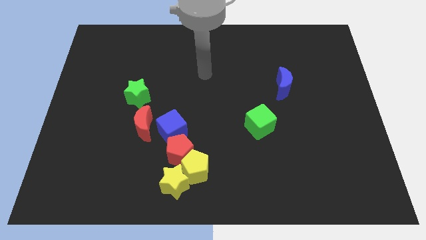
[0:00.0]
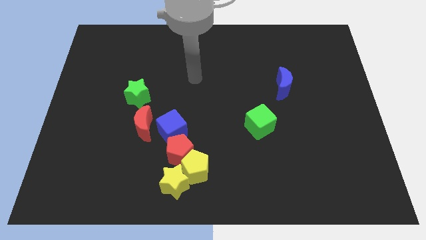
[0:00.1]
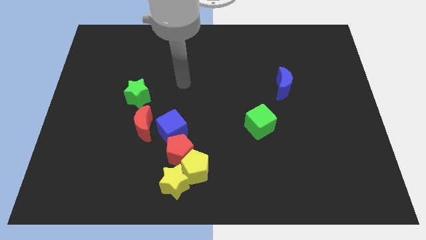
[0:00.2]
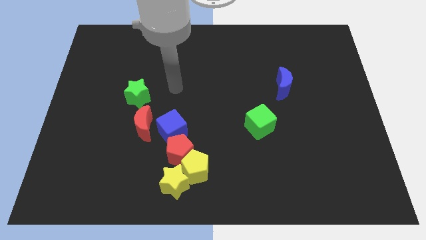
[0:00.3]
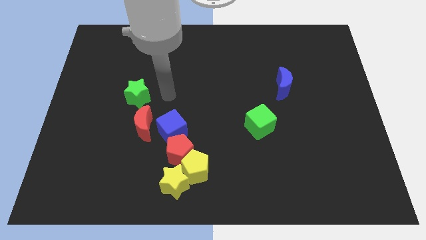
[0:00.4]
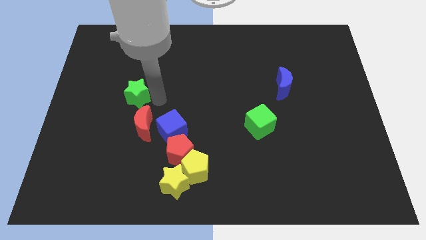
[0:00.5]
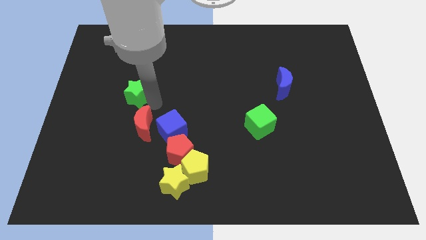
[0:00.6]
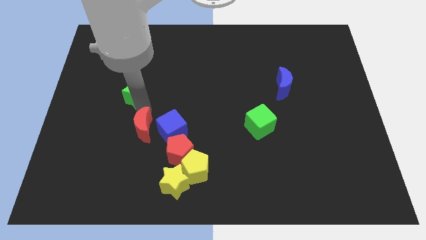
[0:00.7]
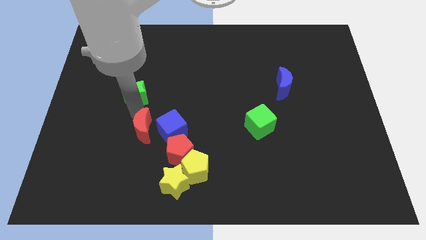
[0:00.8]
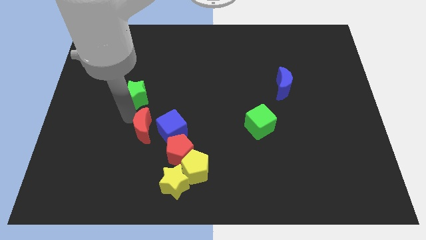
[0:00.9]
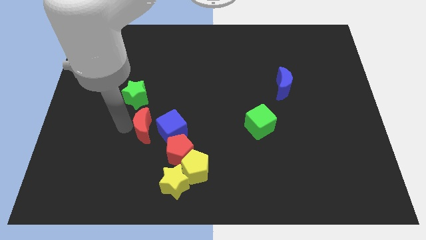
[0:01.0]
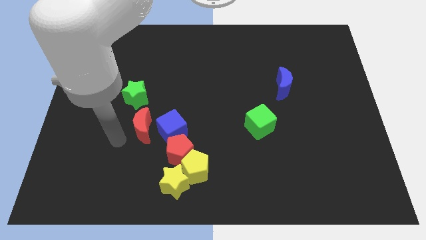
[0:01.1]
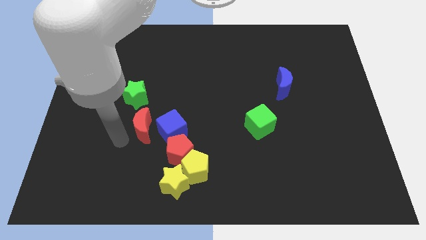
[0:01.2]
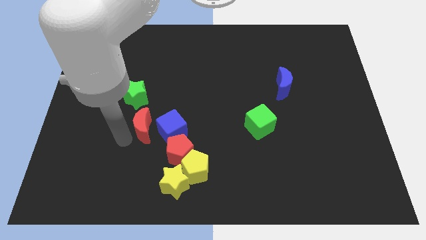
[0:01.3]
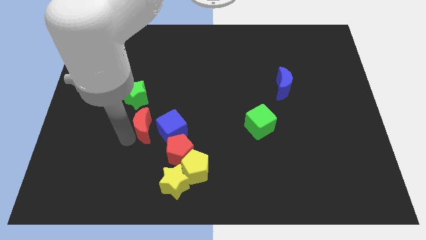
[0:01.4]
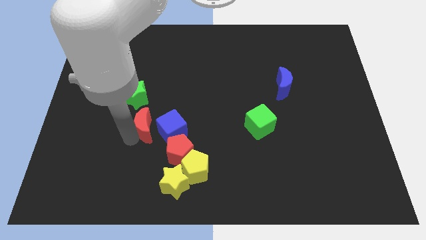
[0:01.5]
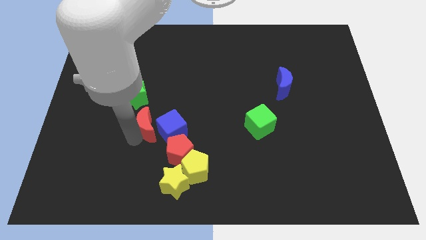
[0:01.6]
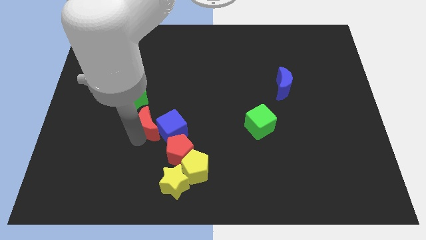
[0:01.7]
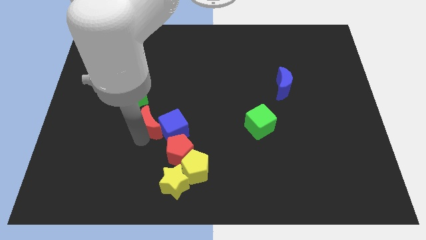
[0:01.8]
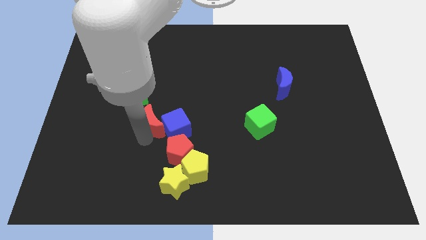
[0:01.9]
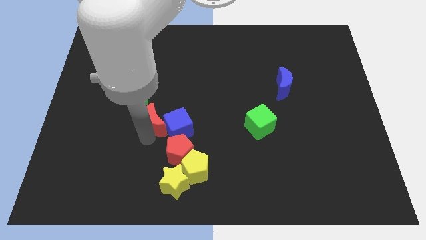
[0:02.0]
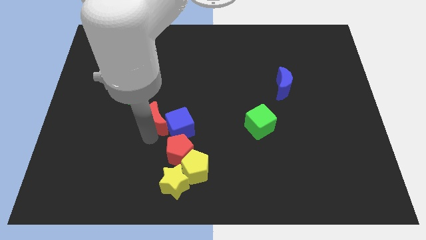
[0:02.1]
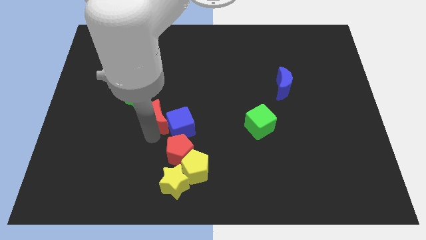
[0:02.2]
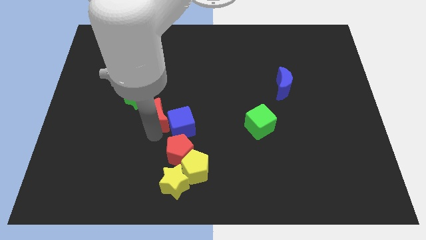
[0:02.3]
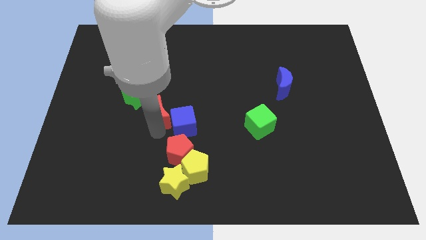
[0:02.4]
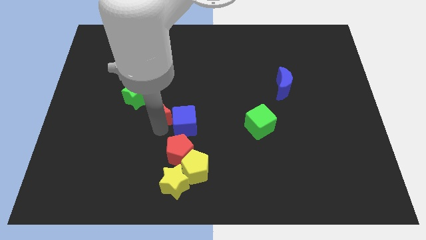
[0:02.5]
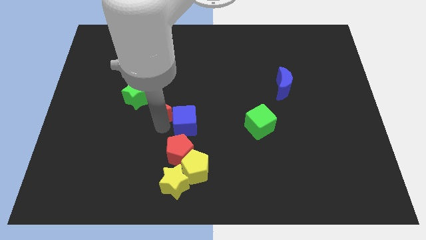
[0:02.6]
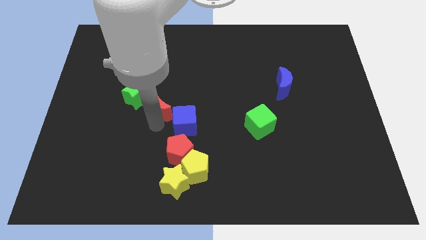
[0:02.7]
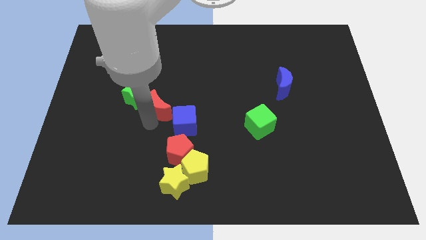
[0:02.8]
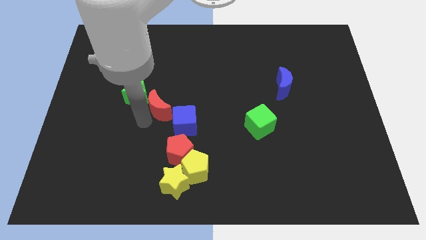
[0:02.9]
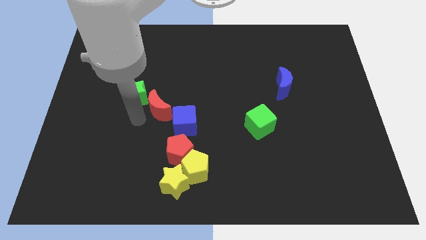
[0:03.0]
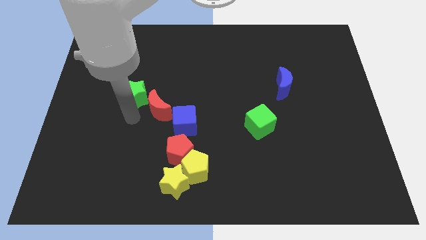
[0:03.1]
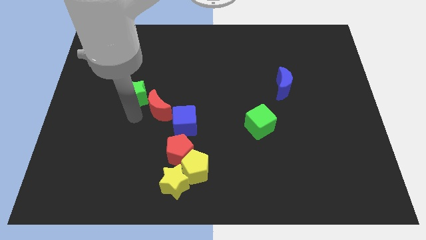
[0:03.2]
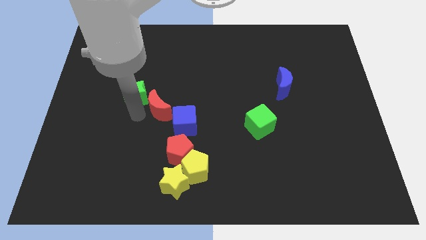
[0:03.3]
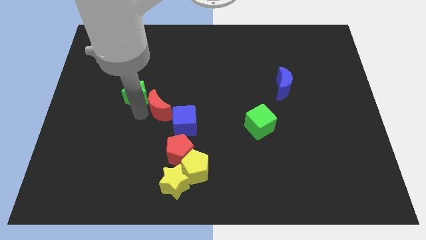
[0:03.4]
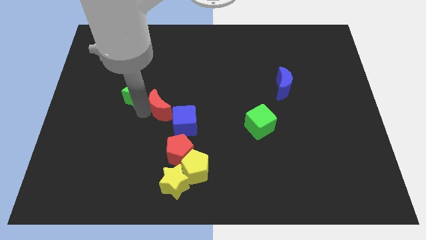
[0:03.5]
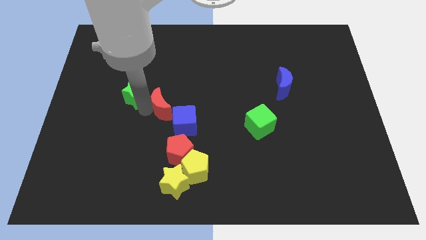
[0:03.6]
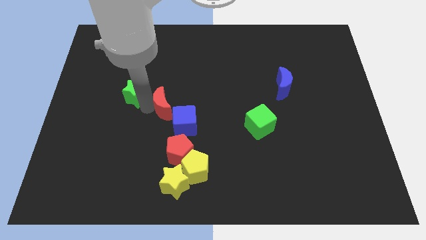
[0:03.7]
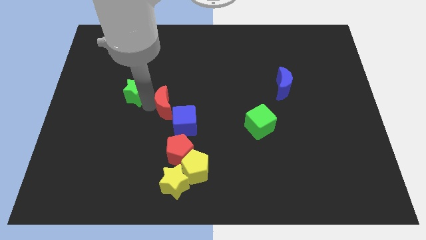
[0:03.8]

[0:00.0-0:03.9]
move the red moon a little upwards and right

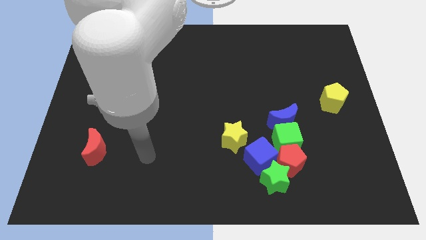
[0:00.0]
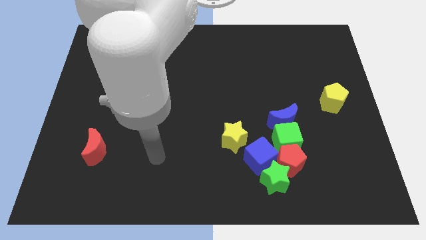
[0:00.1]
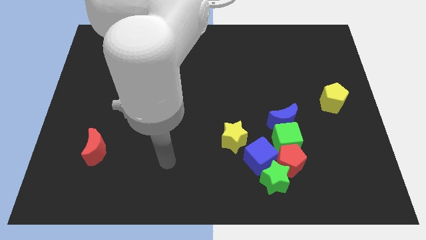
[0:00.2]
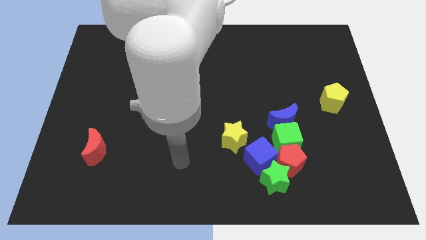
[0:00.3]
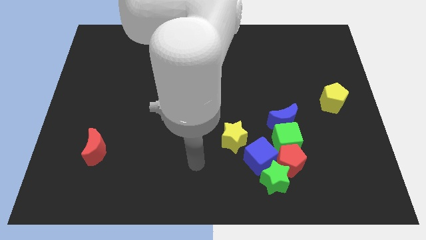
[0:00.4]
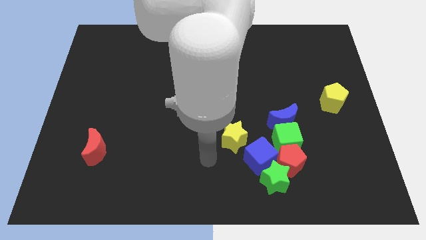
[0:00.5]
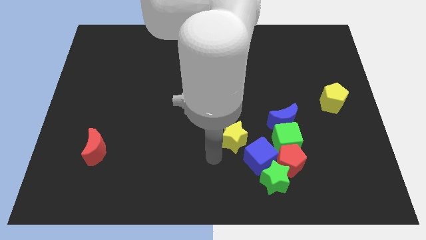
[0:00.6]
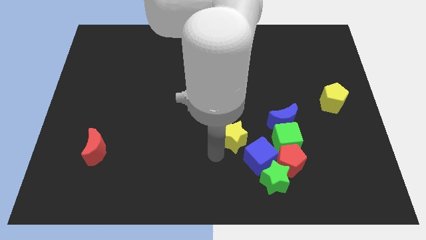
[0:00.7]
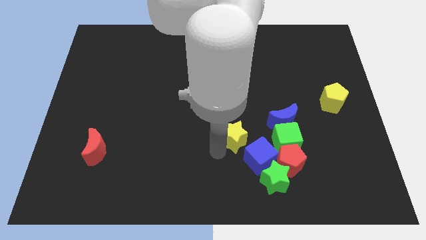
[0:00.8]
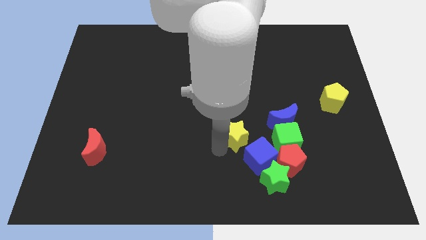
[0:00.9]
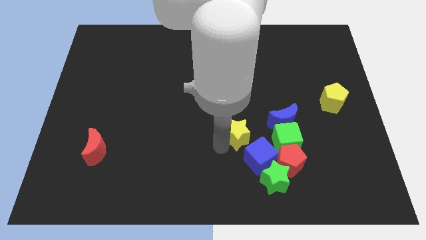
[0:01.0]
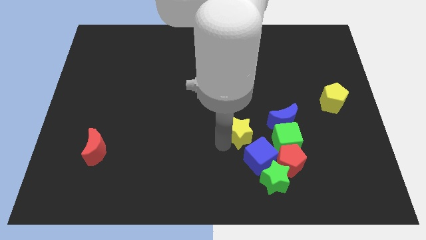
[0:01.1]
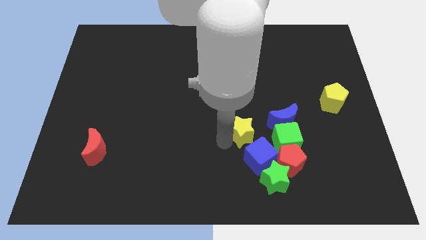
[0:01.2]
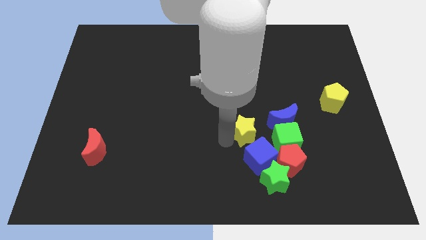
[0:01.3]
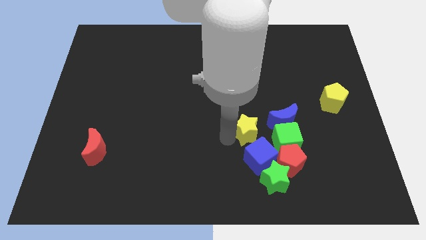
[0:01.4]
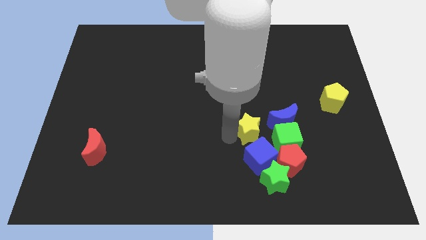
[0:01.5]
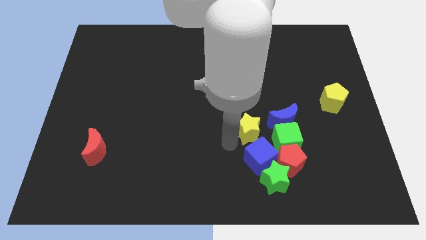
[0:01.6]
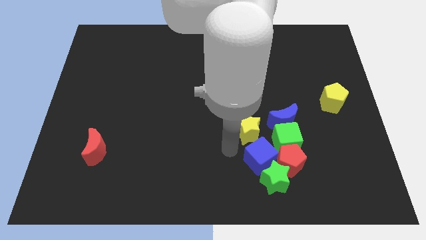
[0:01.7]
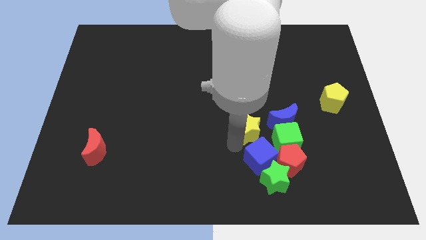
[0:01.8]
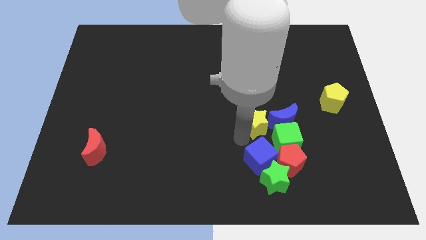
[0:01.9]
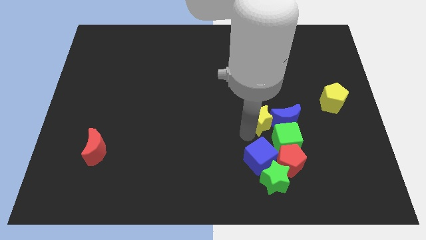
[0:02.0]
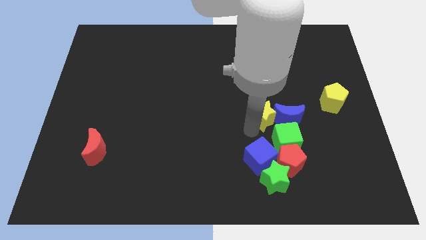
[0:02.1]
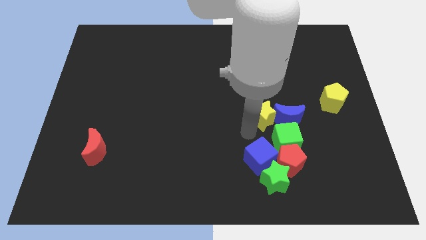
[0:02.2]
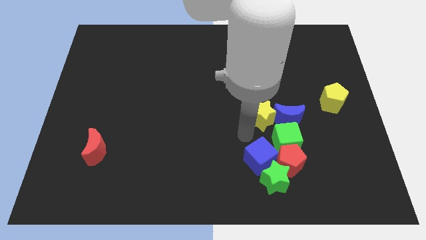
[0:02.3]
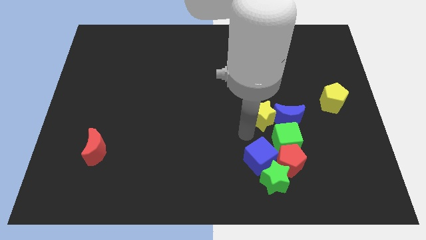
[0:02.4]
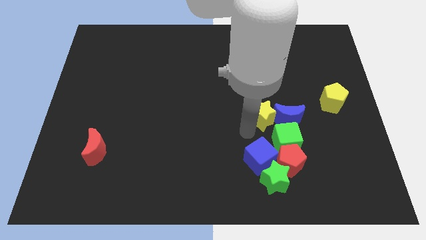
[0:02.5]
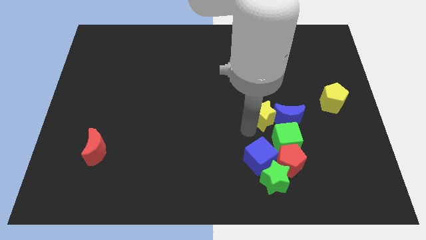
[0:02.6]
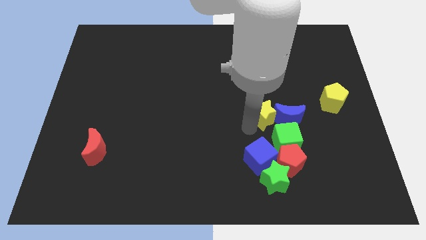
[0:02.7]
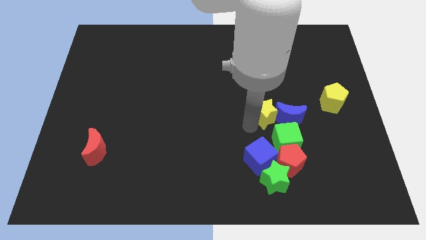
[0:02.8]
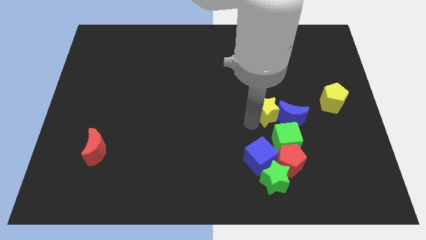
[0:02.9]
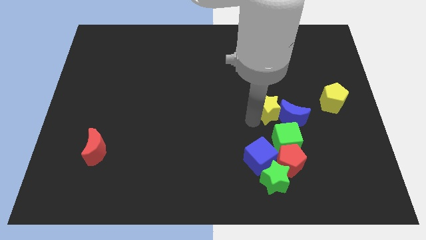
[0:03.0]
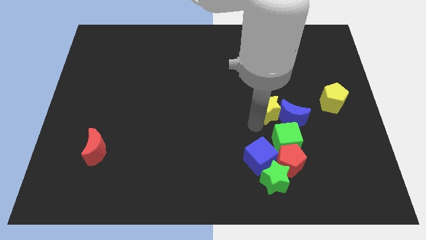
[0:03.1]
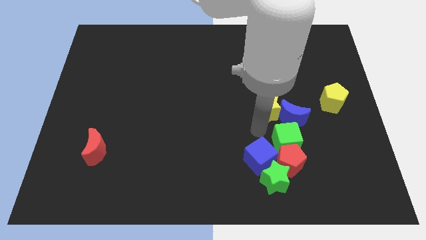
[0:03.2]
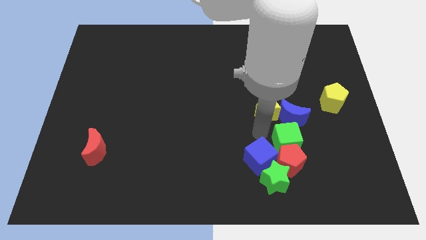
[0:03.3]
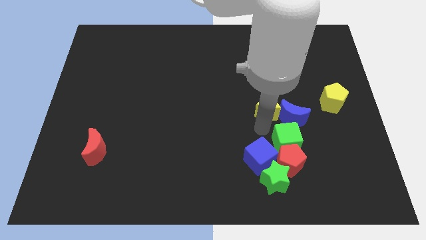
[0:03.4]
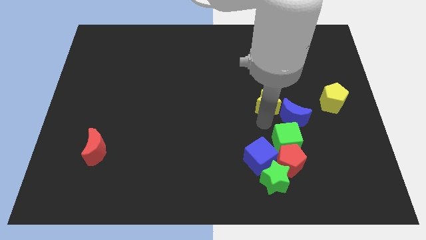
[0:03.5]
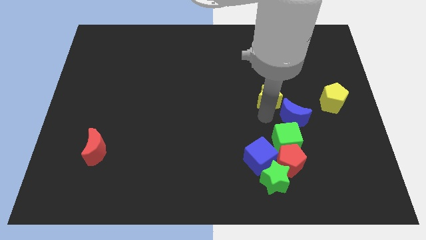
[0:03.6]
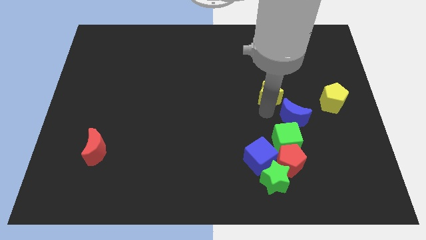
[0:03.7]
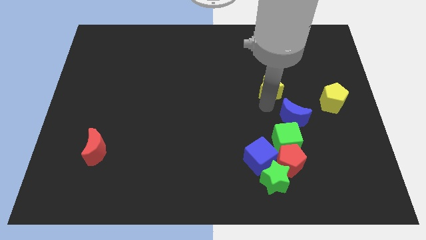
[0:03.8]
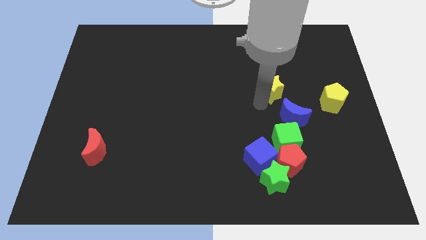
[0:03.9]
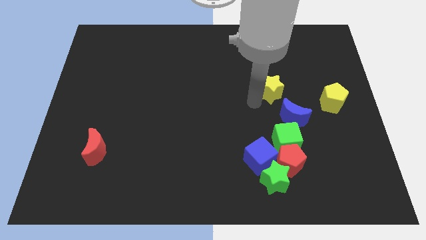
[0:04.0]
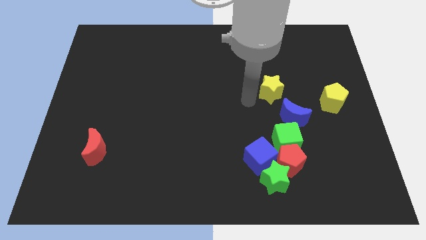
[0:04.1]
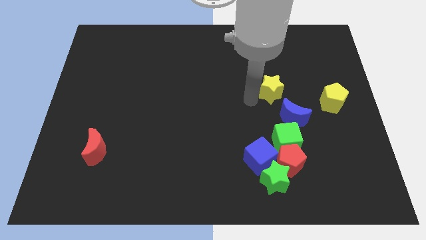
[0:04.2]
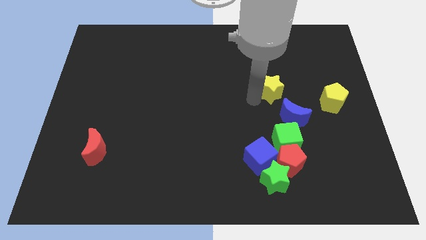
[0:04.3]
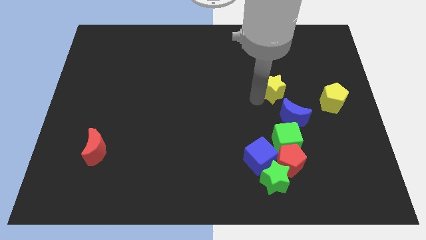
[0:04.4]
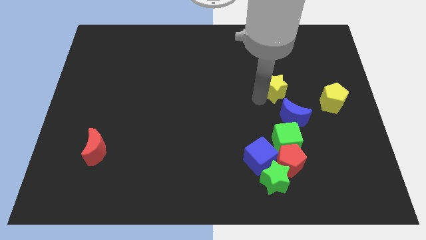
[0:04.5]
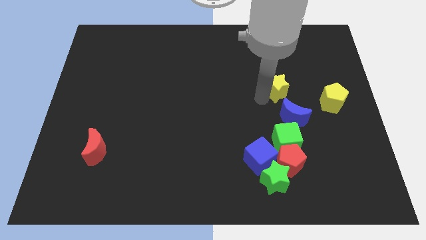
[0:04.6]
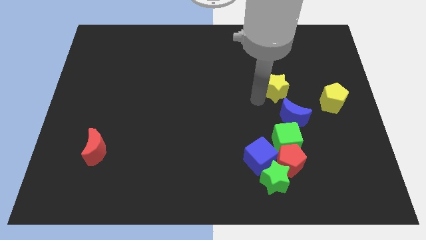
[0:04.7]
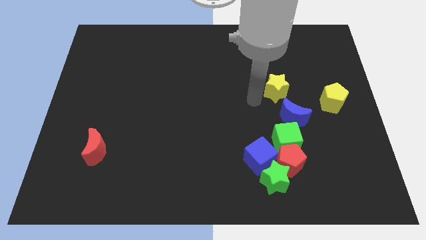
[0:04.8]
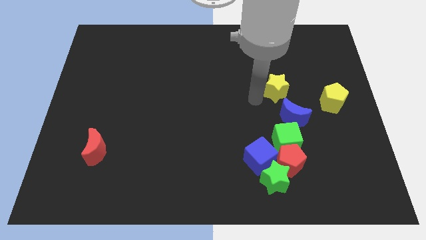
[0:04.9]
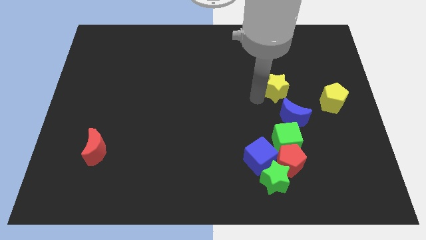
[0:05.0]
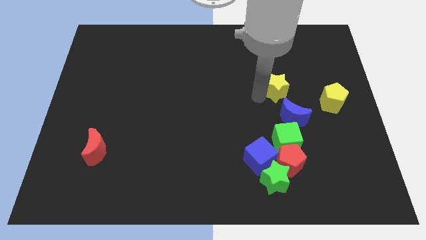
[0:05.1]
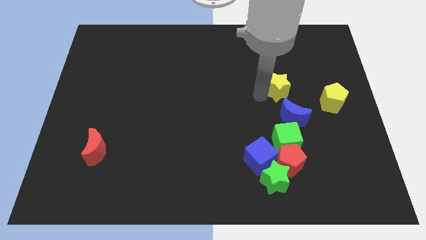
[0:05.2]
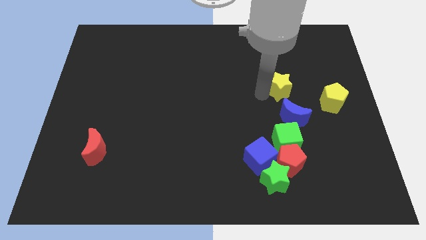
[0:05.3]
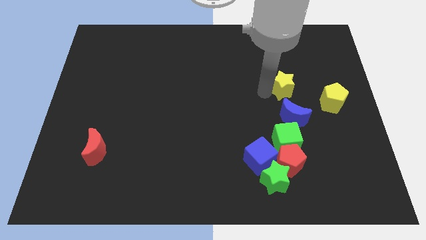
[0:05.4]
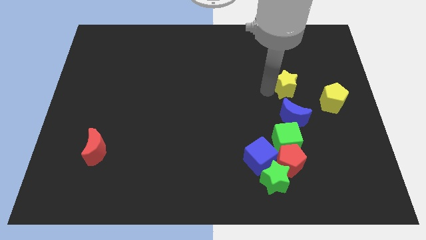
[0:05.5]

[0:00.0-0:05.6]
move the yellow star up and then right
